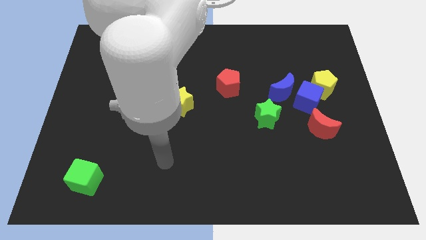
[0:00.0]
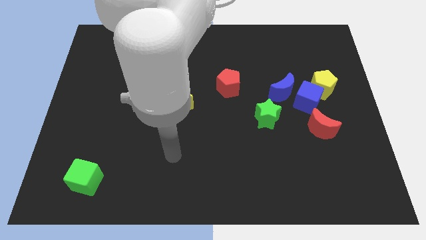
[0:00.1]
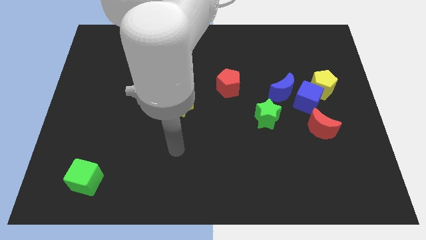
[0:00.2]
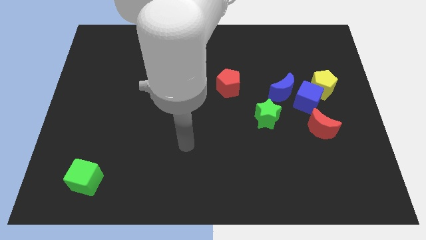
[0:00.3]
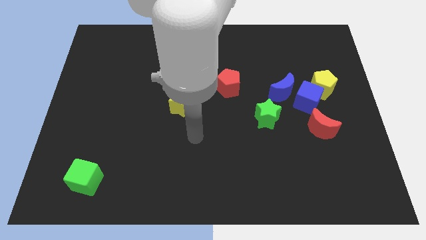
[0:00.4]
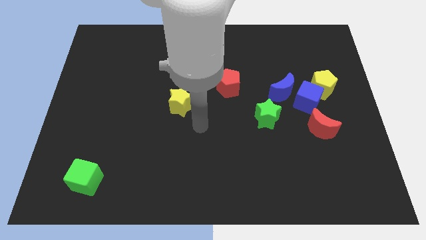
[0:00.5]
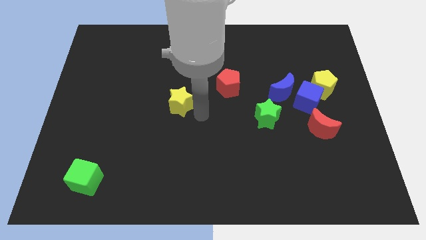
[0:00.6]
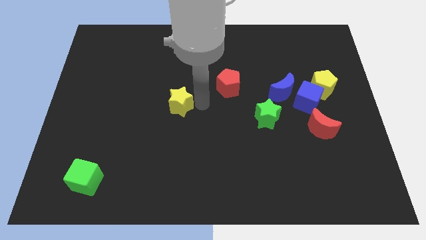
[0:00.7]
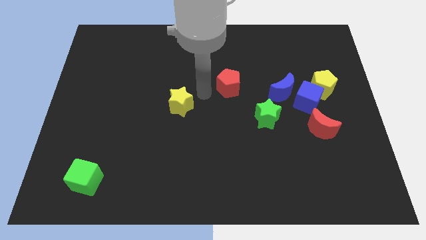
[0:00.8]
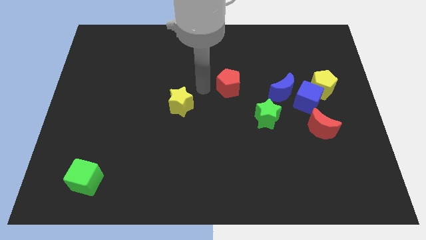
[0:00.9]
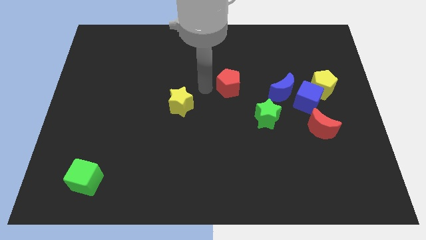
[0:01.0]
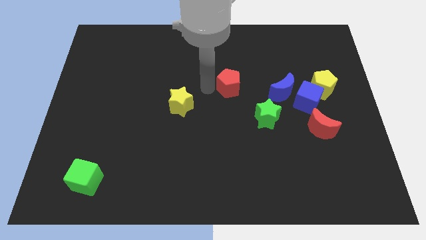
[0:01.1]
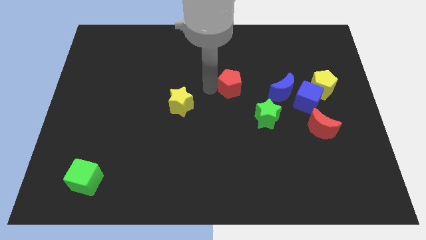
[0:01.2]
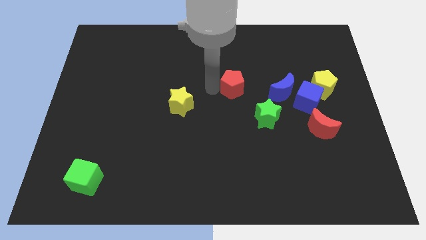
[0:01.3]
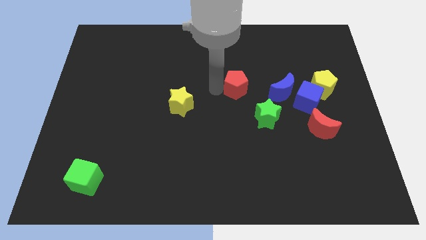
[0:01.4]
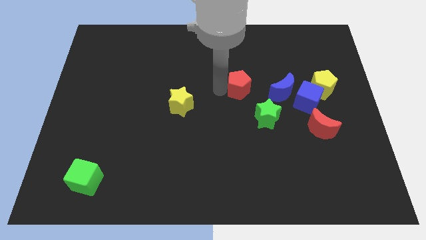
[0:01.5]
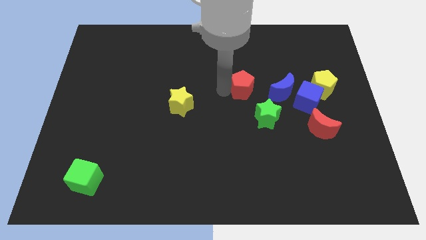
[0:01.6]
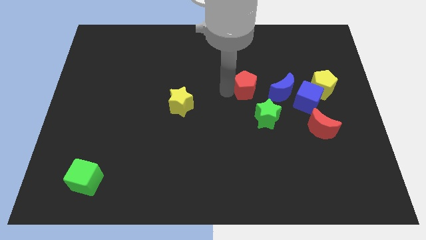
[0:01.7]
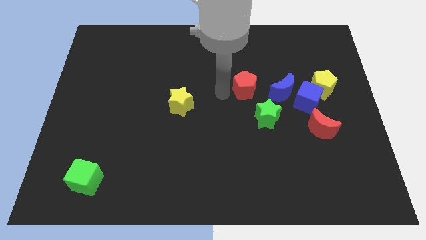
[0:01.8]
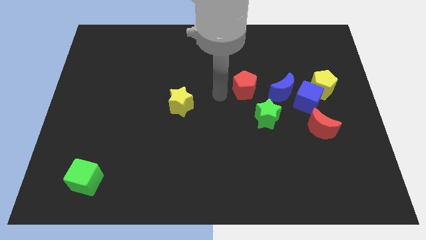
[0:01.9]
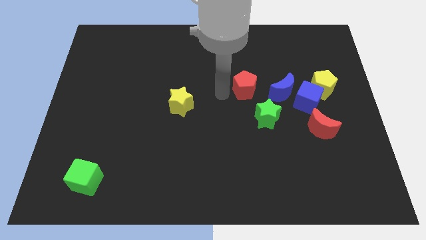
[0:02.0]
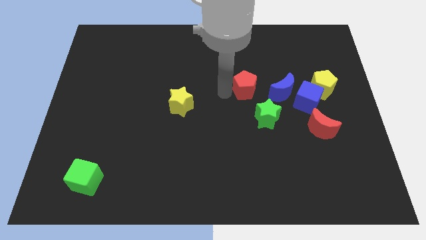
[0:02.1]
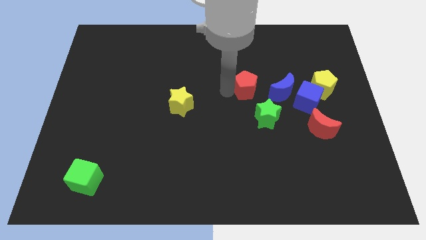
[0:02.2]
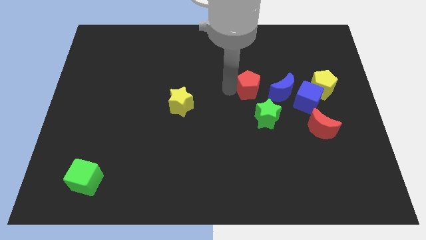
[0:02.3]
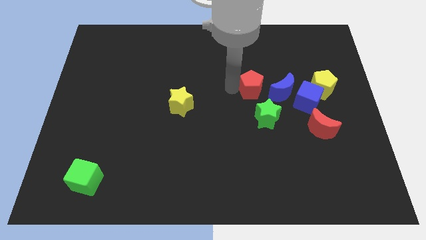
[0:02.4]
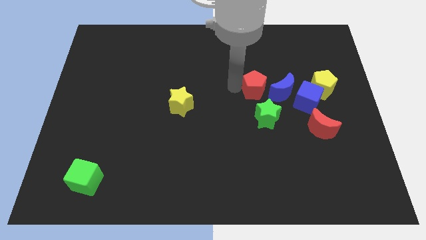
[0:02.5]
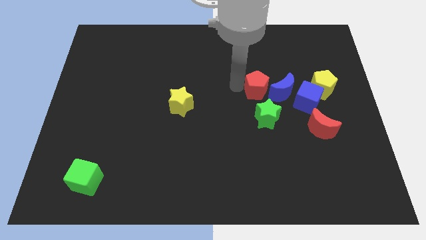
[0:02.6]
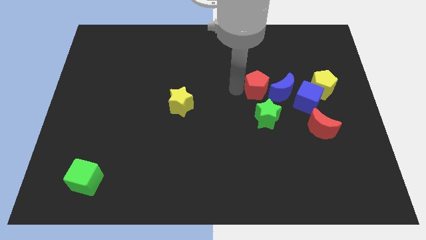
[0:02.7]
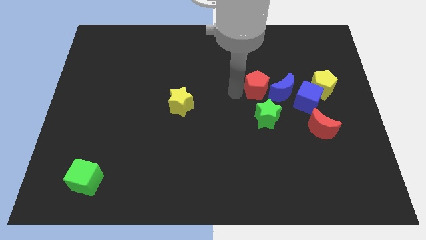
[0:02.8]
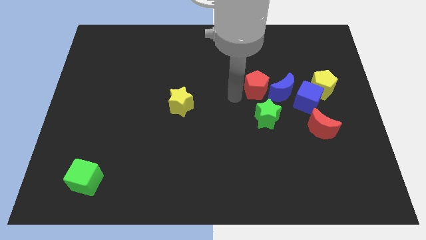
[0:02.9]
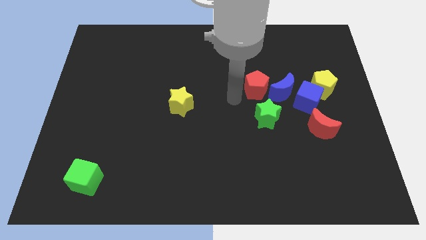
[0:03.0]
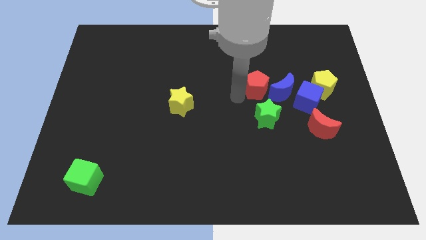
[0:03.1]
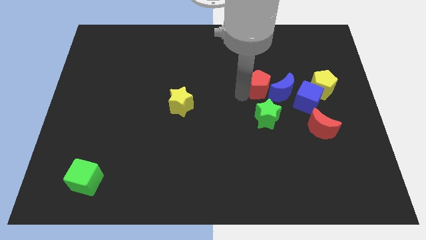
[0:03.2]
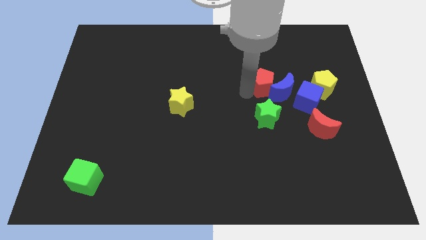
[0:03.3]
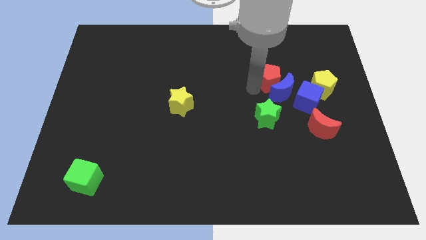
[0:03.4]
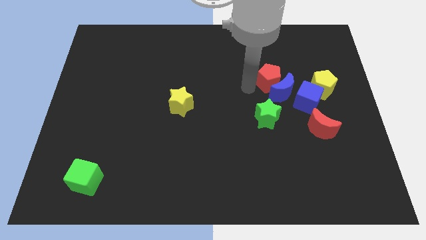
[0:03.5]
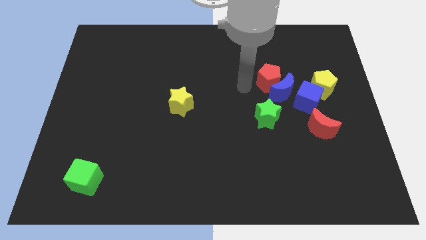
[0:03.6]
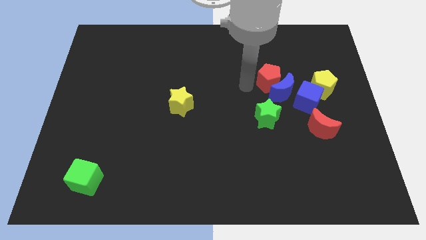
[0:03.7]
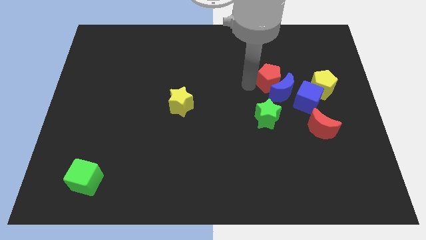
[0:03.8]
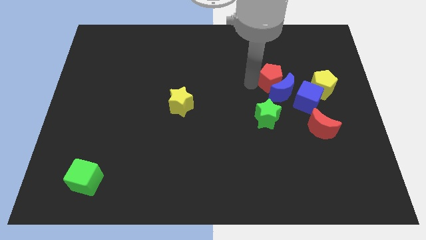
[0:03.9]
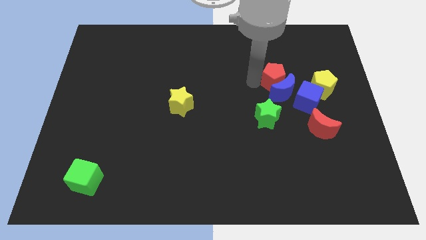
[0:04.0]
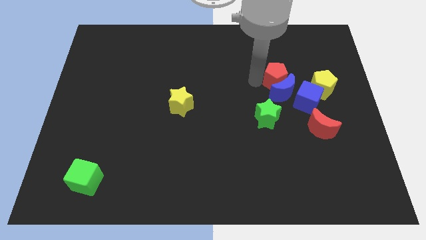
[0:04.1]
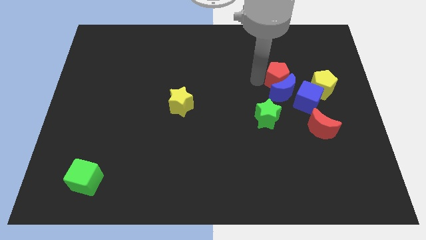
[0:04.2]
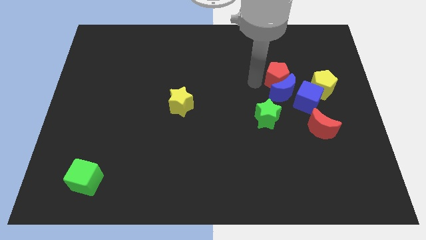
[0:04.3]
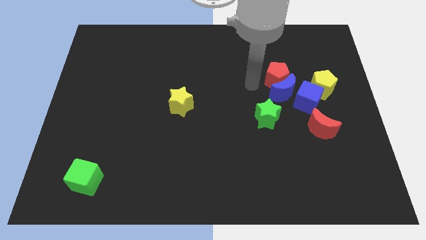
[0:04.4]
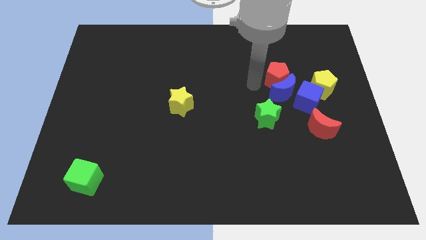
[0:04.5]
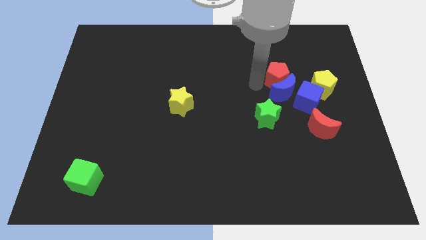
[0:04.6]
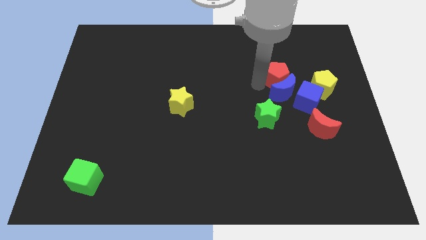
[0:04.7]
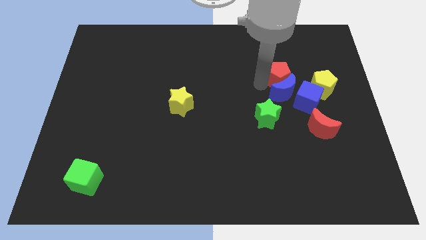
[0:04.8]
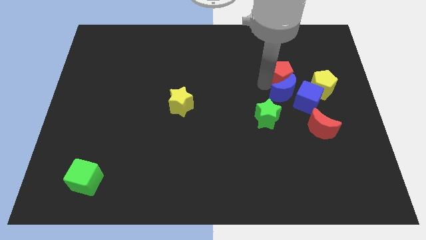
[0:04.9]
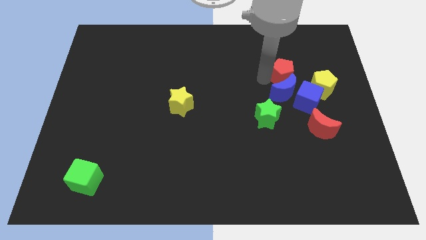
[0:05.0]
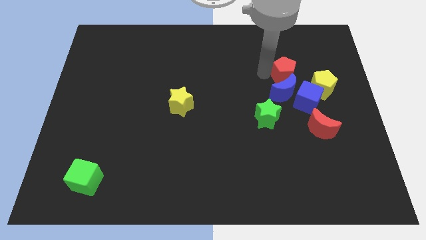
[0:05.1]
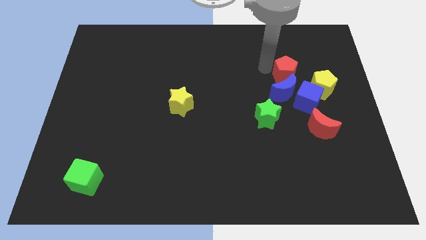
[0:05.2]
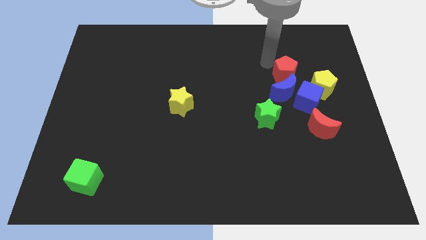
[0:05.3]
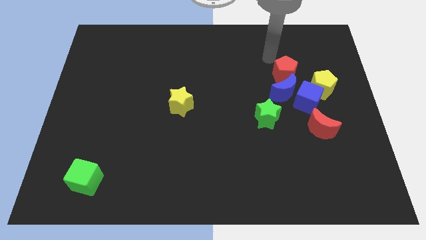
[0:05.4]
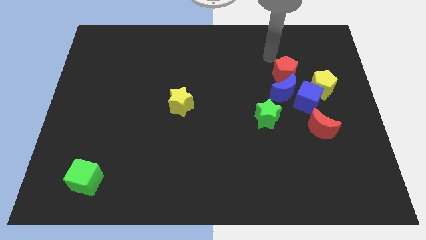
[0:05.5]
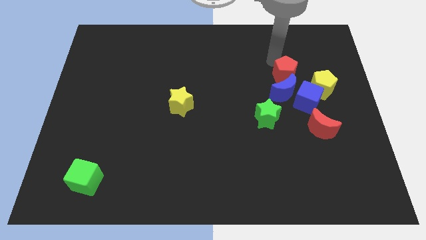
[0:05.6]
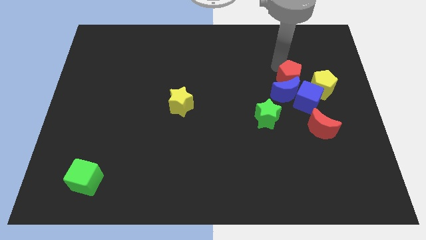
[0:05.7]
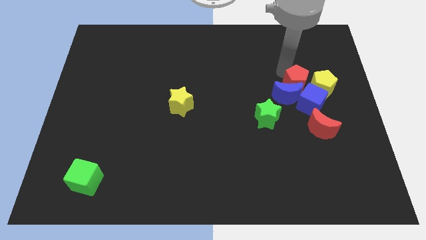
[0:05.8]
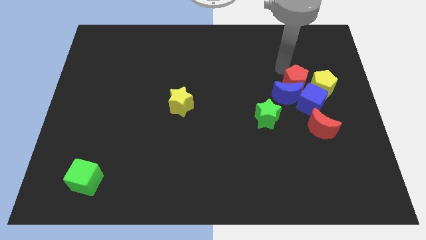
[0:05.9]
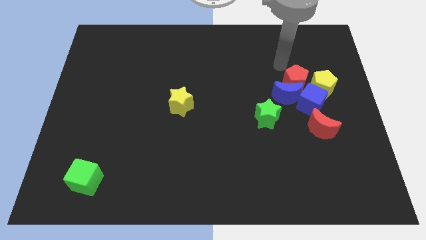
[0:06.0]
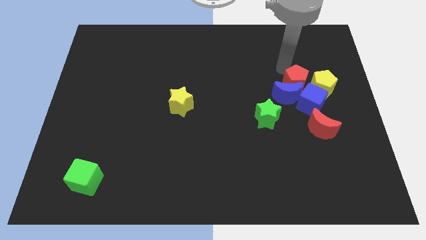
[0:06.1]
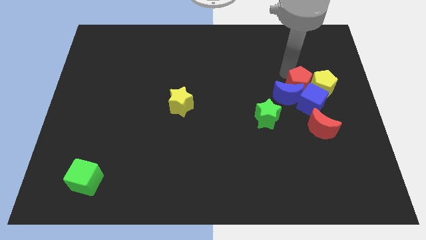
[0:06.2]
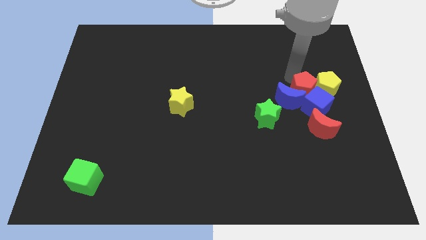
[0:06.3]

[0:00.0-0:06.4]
slide the red pentagon next to the blue cube
